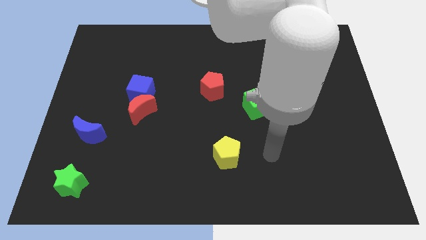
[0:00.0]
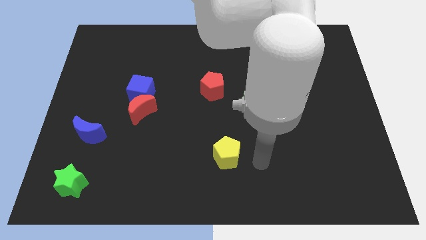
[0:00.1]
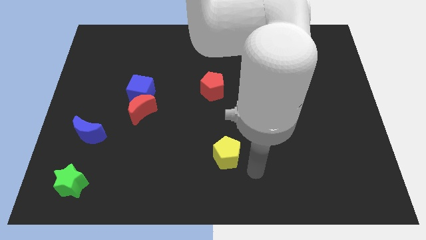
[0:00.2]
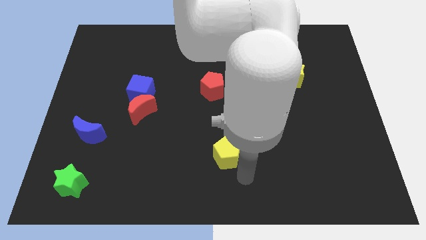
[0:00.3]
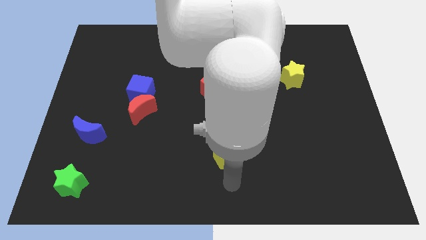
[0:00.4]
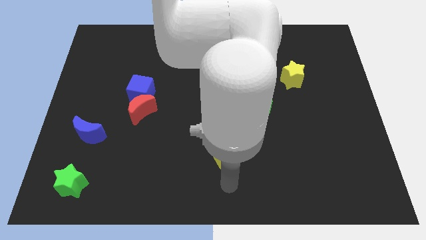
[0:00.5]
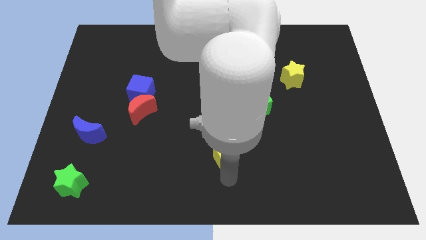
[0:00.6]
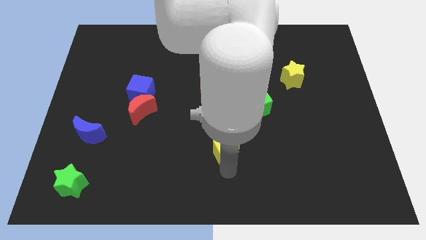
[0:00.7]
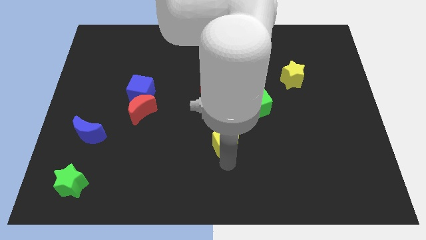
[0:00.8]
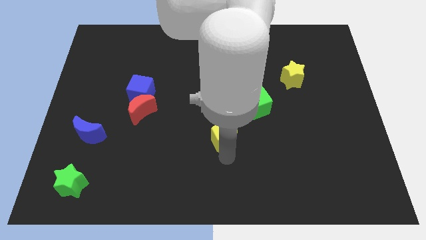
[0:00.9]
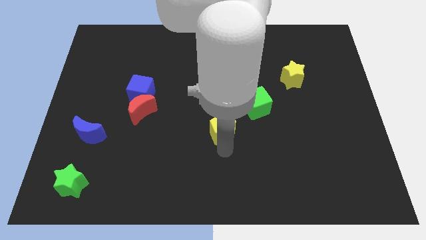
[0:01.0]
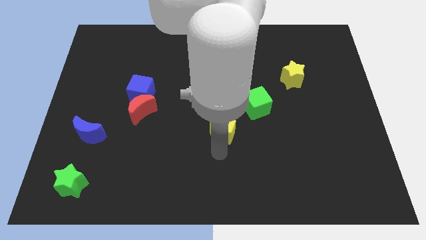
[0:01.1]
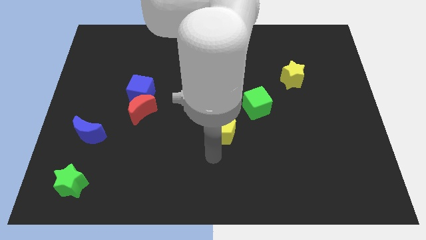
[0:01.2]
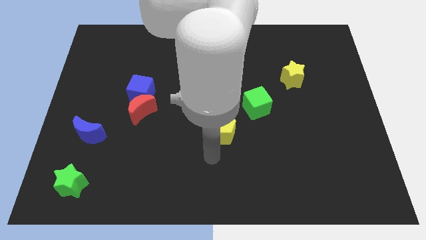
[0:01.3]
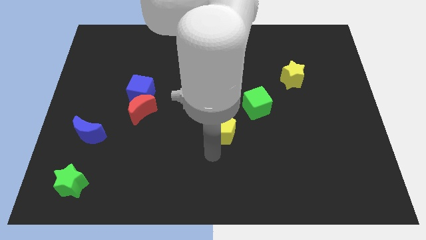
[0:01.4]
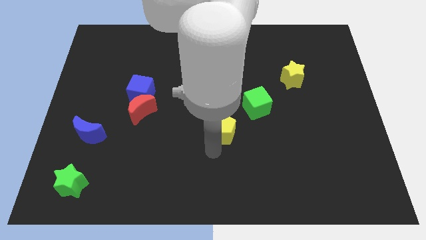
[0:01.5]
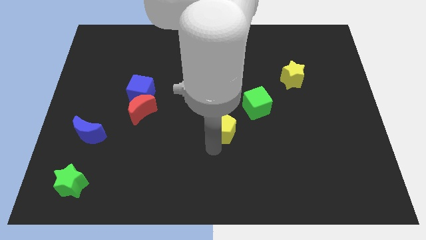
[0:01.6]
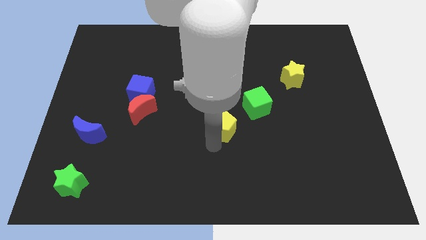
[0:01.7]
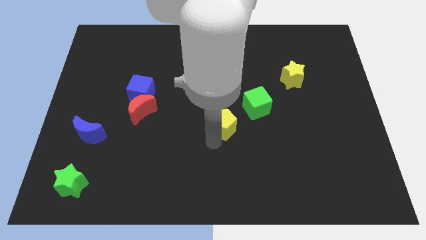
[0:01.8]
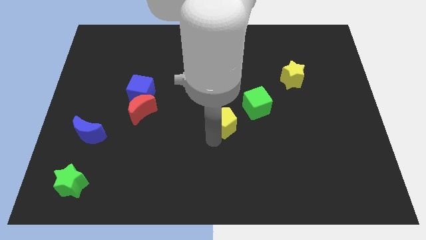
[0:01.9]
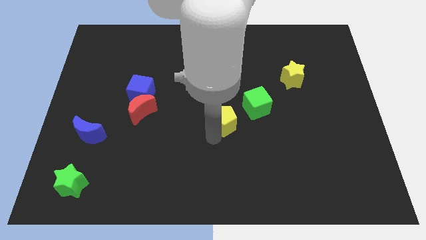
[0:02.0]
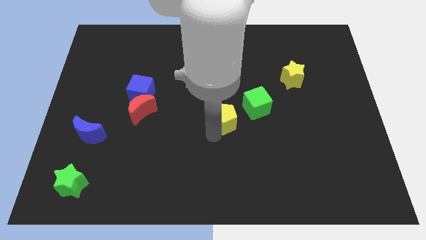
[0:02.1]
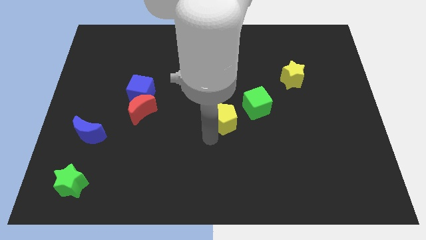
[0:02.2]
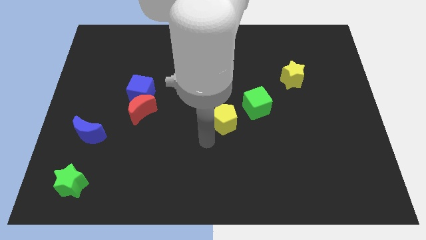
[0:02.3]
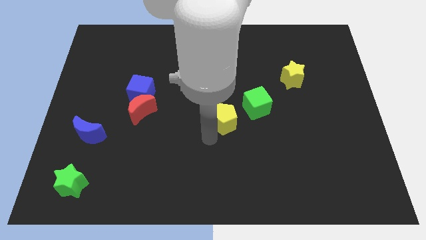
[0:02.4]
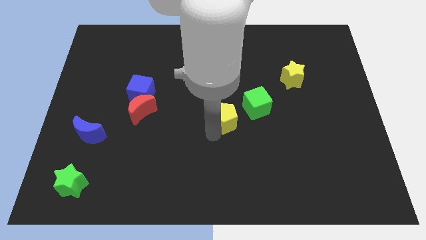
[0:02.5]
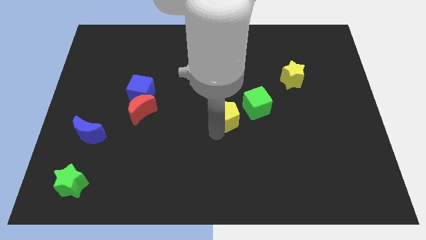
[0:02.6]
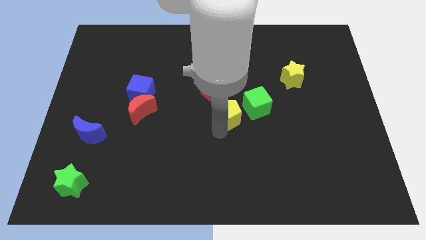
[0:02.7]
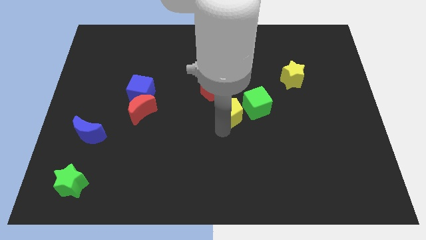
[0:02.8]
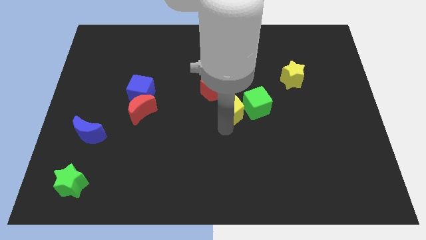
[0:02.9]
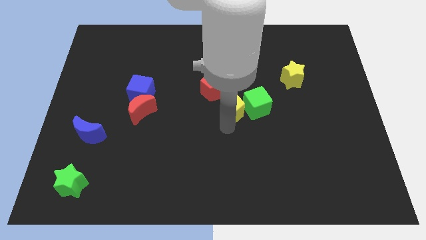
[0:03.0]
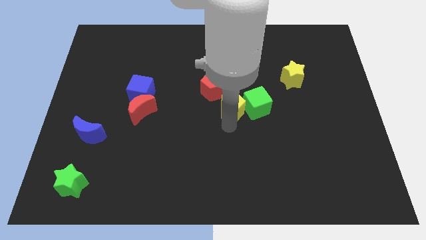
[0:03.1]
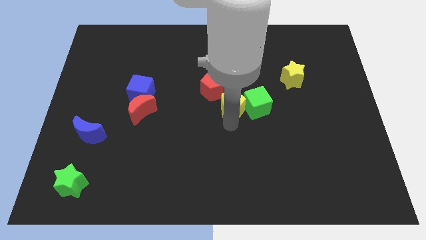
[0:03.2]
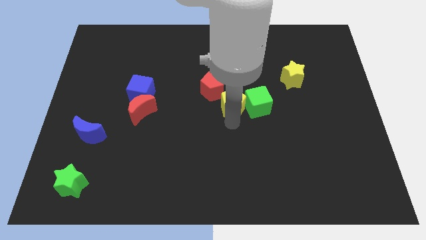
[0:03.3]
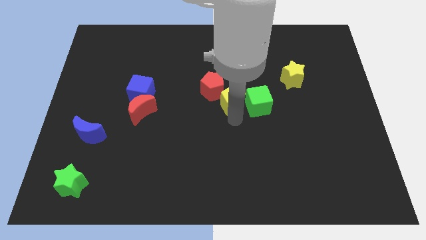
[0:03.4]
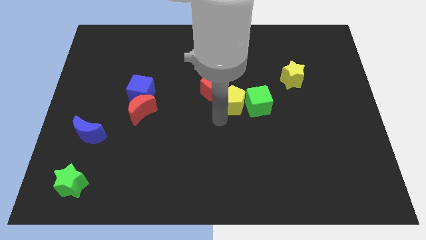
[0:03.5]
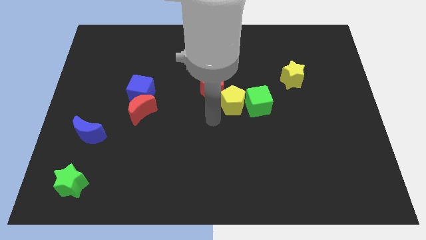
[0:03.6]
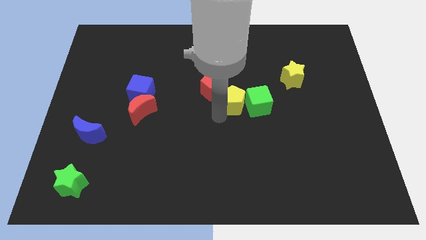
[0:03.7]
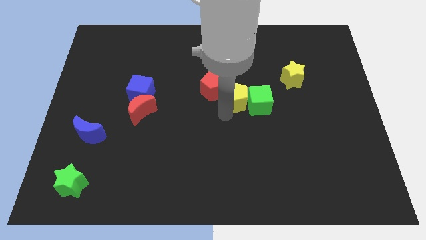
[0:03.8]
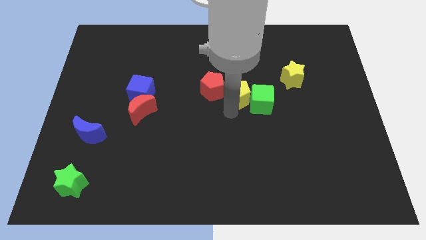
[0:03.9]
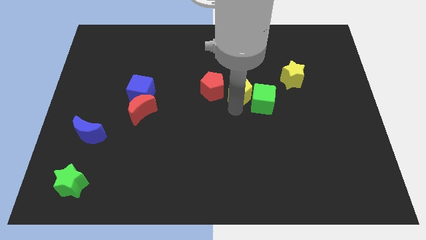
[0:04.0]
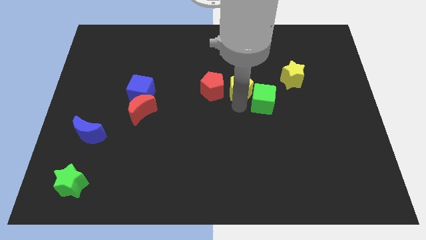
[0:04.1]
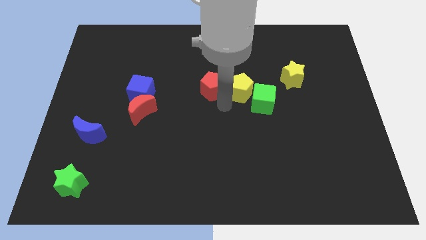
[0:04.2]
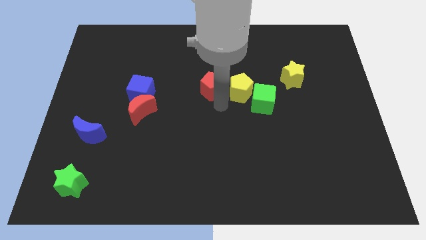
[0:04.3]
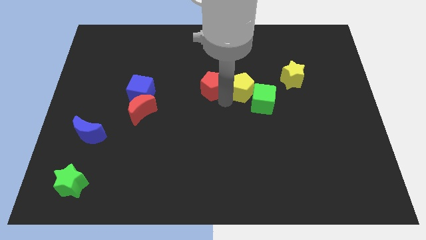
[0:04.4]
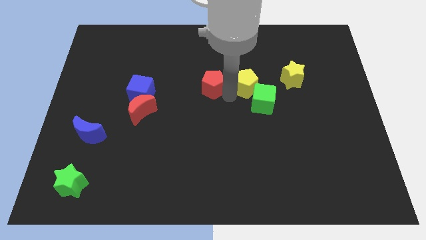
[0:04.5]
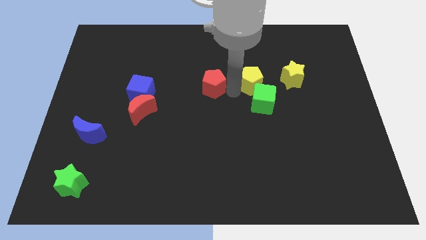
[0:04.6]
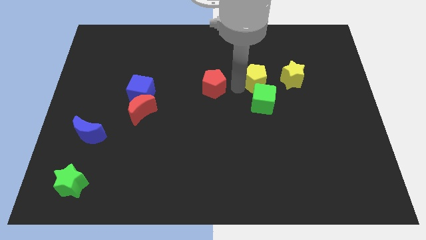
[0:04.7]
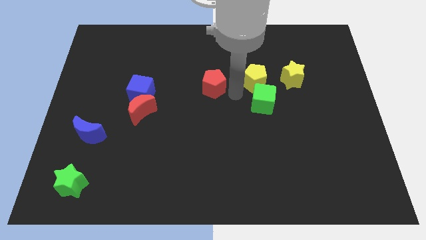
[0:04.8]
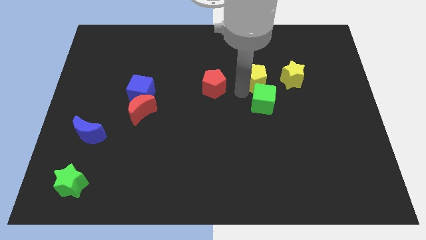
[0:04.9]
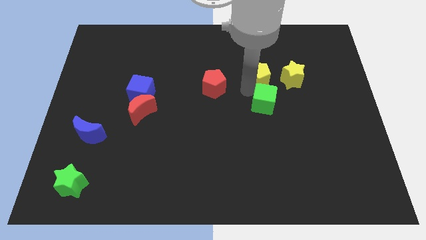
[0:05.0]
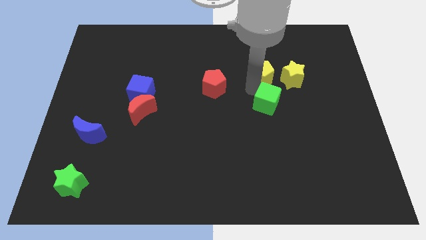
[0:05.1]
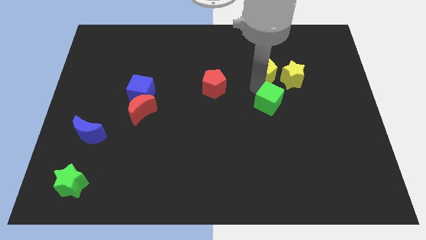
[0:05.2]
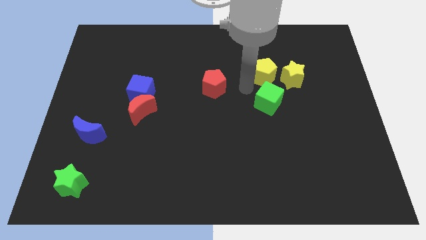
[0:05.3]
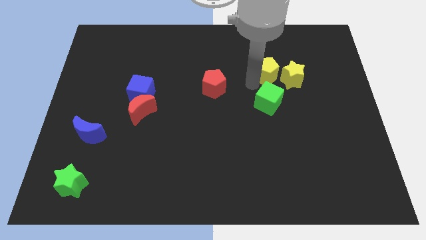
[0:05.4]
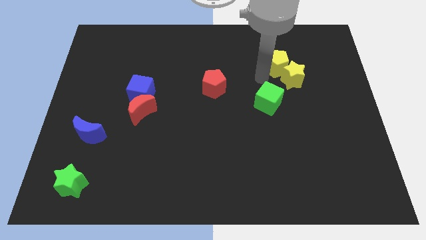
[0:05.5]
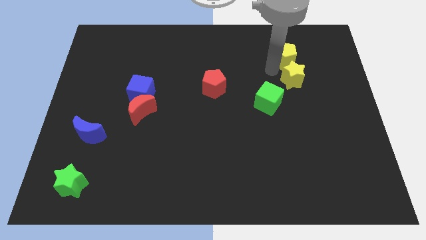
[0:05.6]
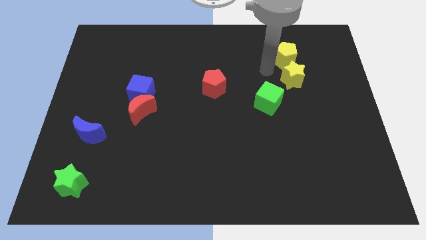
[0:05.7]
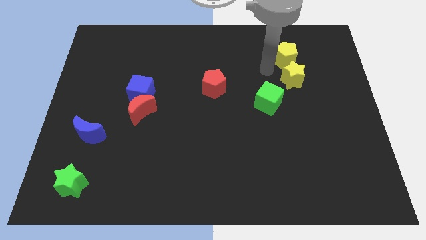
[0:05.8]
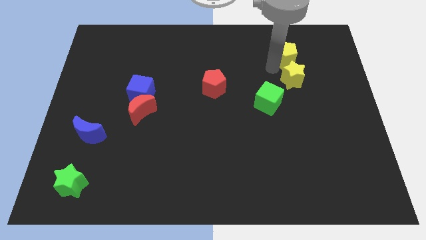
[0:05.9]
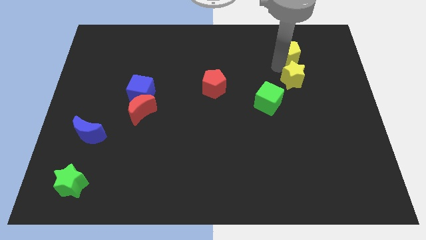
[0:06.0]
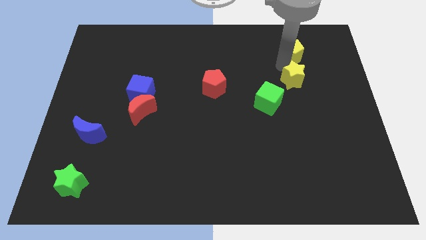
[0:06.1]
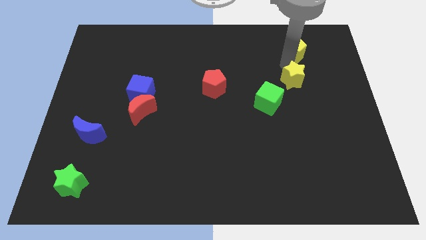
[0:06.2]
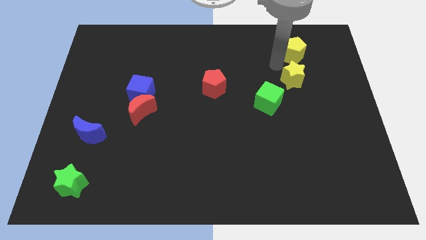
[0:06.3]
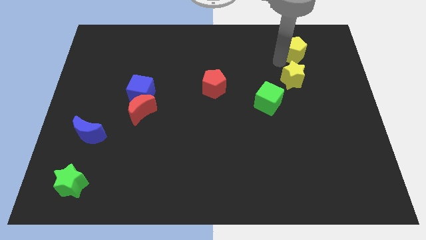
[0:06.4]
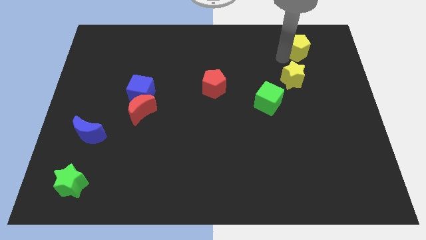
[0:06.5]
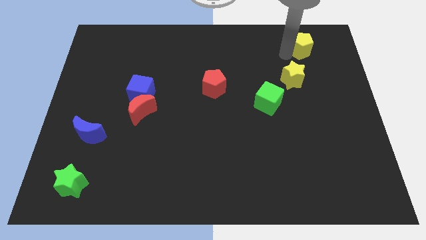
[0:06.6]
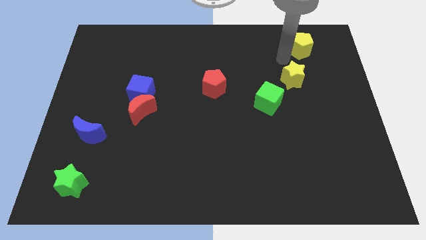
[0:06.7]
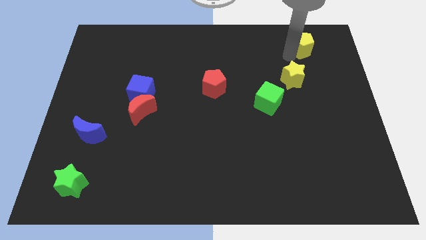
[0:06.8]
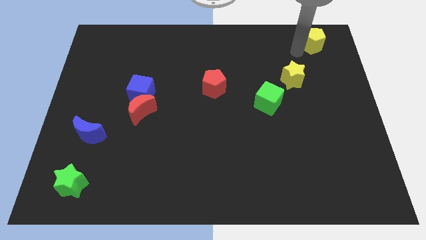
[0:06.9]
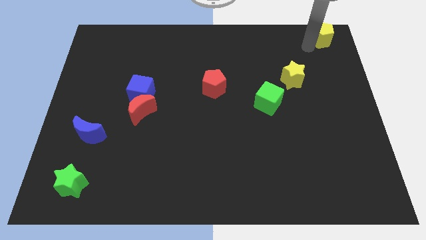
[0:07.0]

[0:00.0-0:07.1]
slide the yellow pentagon to the top right corner
